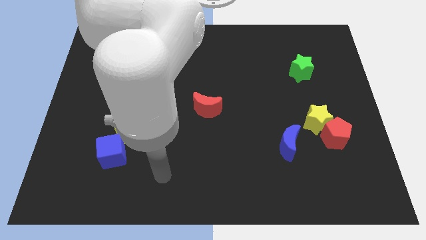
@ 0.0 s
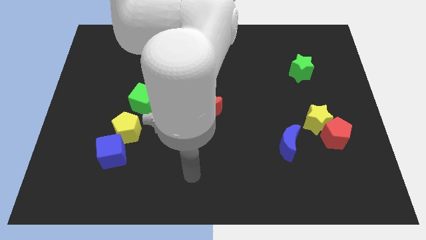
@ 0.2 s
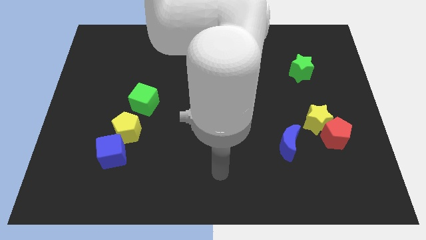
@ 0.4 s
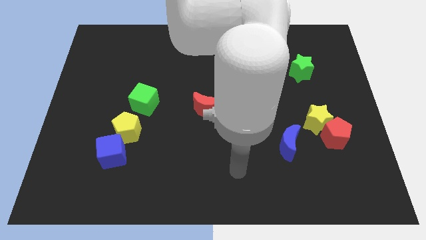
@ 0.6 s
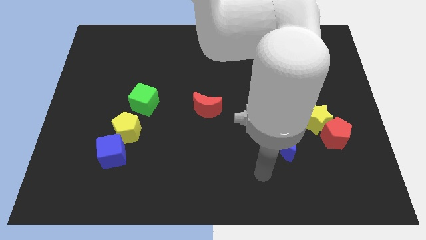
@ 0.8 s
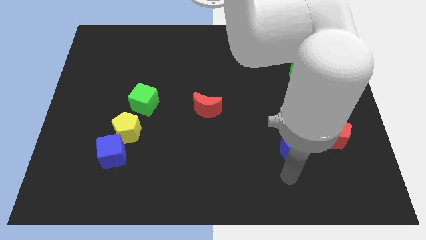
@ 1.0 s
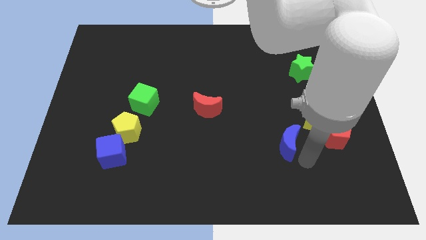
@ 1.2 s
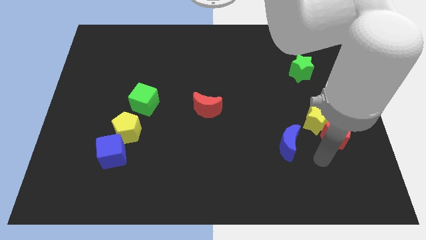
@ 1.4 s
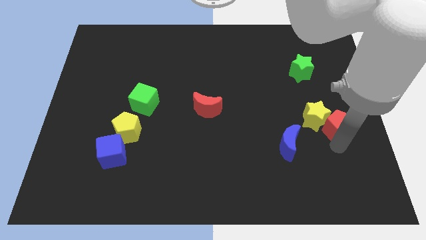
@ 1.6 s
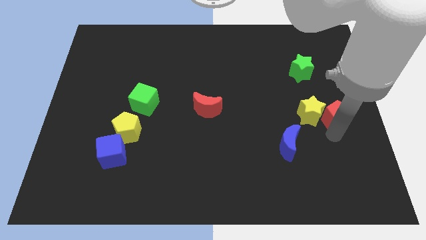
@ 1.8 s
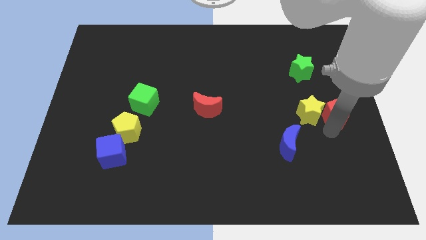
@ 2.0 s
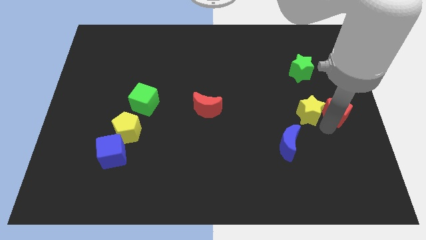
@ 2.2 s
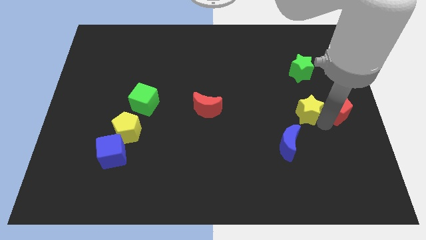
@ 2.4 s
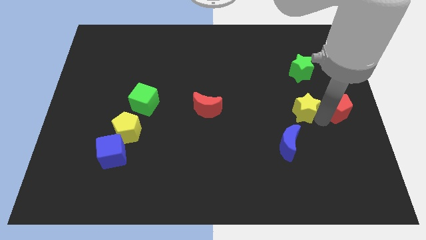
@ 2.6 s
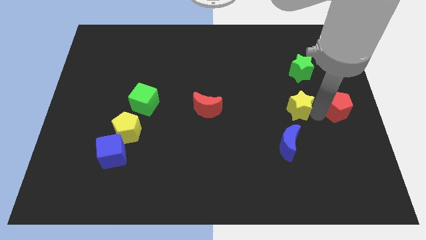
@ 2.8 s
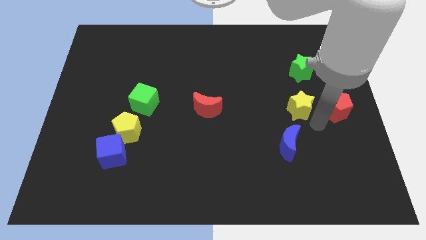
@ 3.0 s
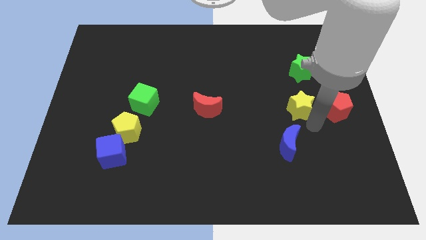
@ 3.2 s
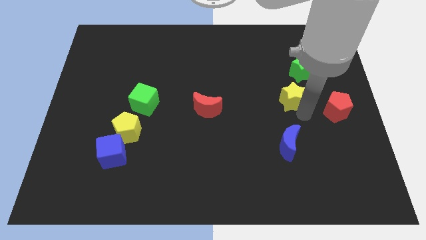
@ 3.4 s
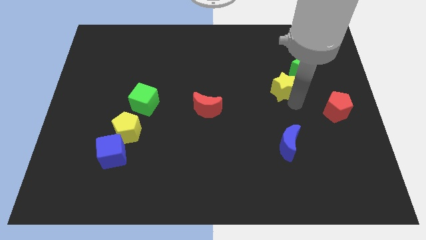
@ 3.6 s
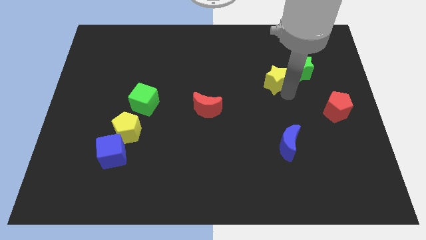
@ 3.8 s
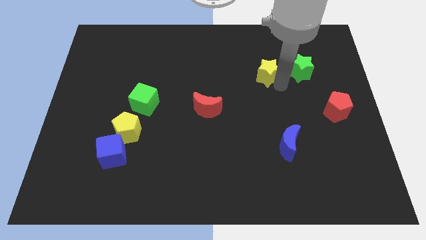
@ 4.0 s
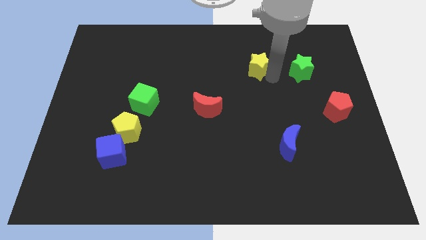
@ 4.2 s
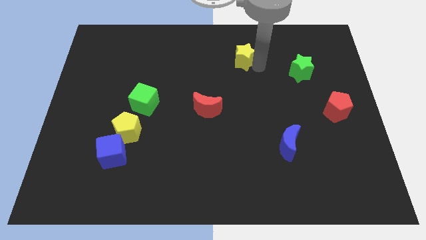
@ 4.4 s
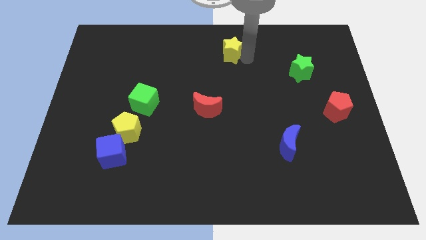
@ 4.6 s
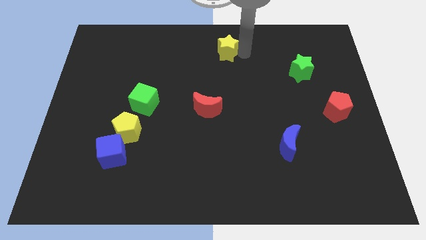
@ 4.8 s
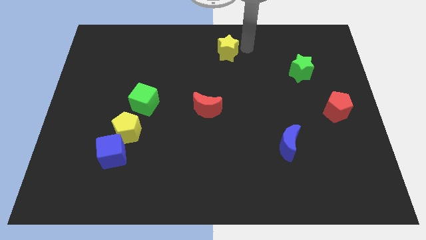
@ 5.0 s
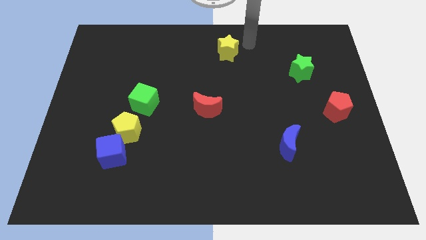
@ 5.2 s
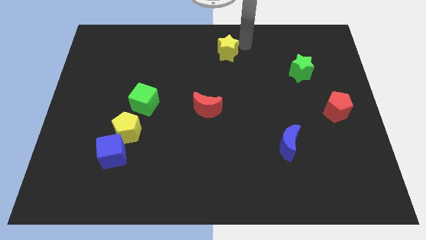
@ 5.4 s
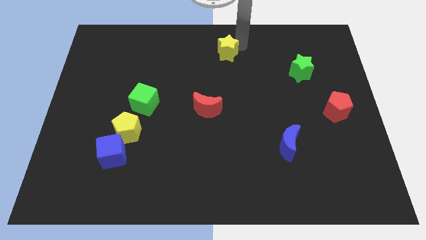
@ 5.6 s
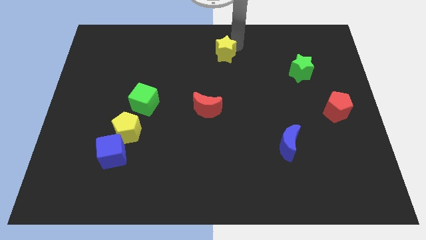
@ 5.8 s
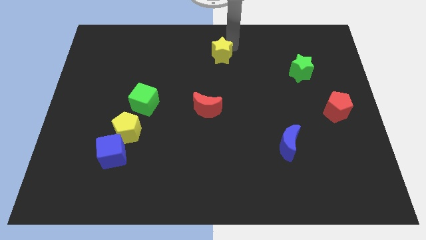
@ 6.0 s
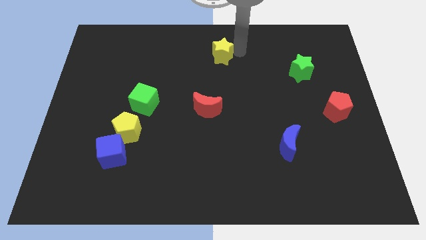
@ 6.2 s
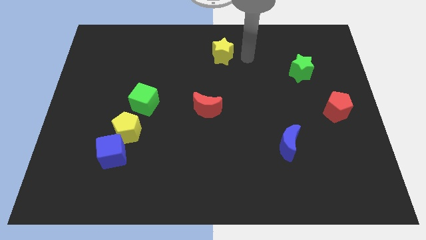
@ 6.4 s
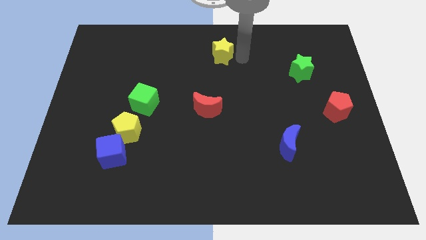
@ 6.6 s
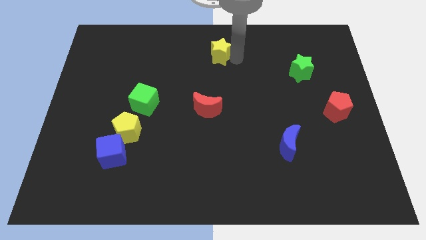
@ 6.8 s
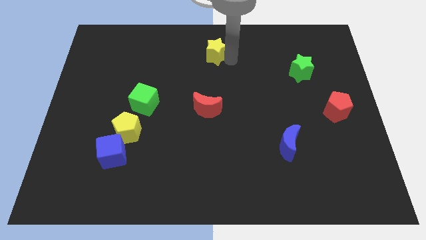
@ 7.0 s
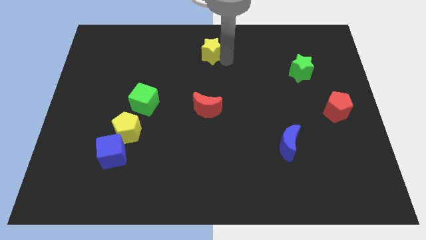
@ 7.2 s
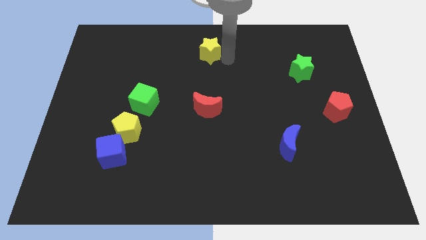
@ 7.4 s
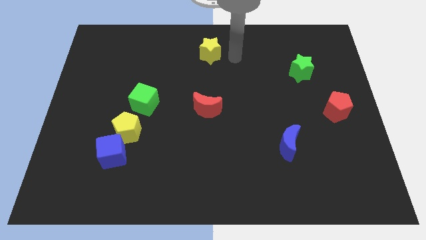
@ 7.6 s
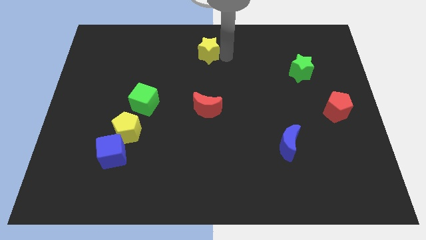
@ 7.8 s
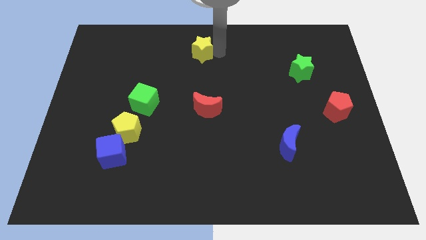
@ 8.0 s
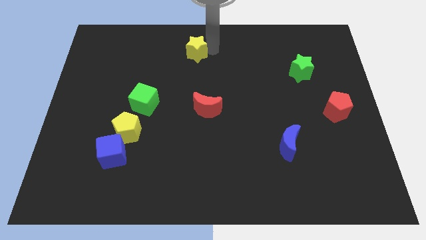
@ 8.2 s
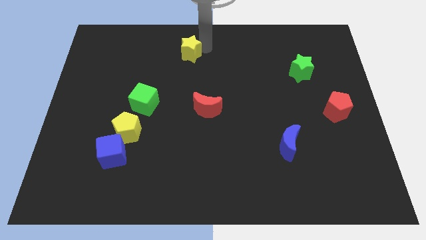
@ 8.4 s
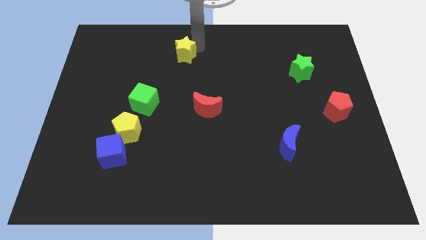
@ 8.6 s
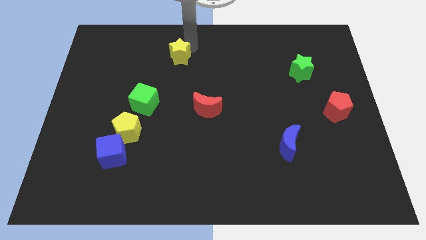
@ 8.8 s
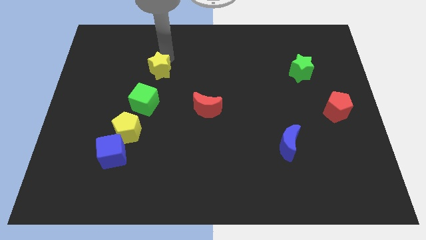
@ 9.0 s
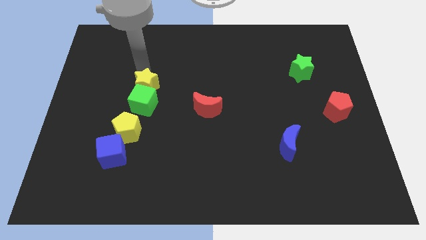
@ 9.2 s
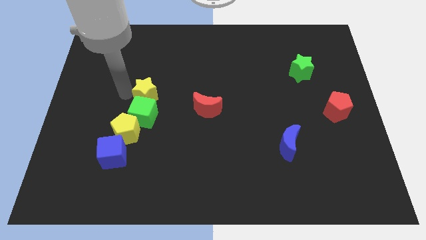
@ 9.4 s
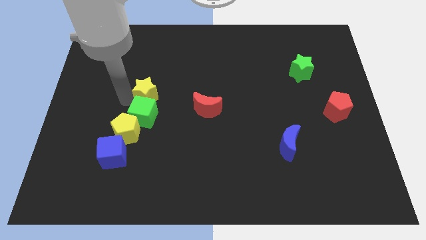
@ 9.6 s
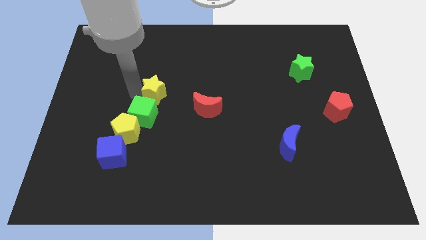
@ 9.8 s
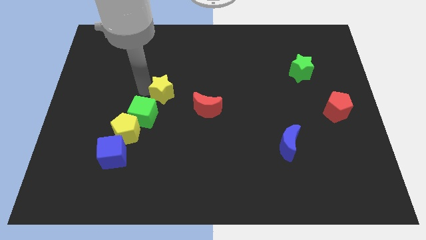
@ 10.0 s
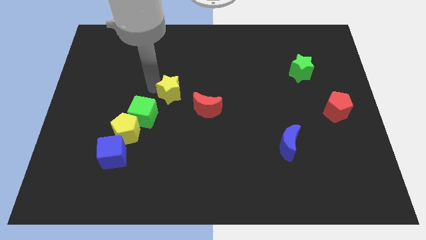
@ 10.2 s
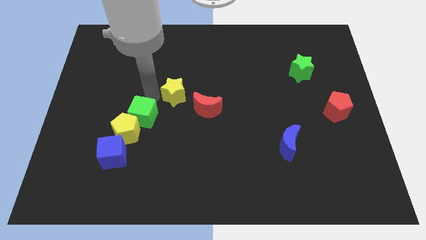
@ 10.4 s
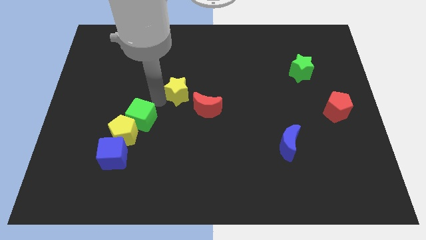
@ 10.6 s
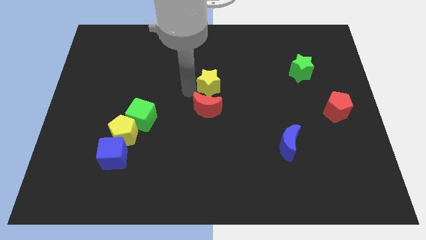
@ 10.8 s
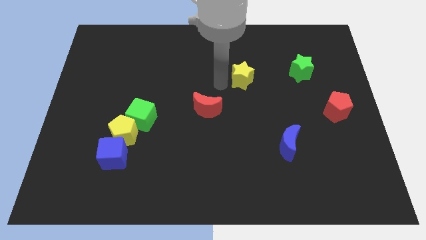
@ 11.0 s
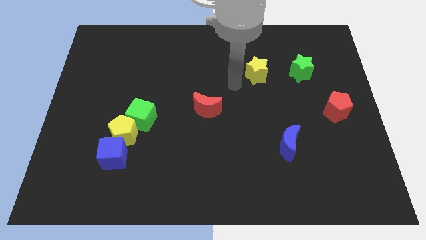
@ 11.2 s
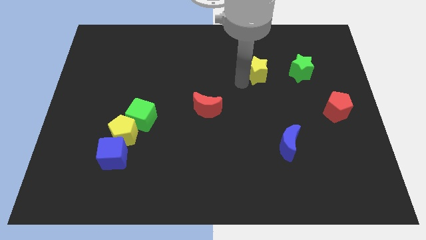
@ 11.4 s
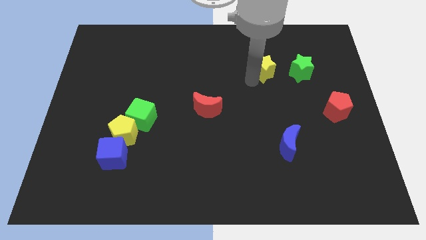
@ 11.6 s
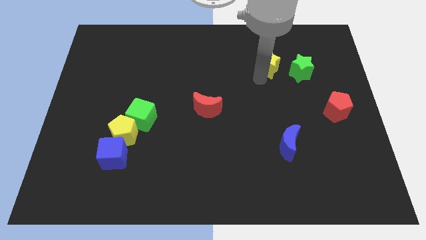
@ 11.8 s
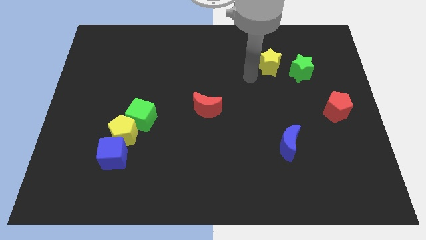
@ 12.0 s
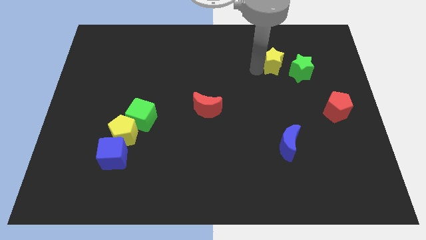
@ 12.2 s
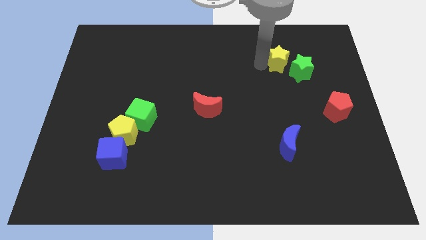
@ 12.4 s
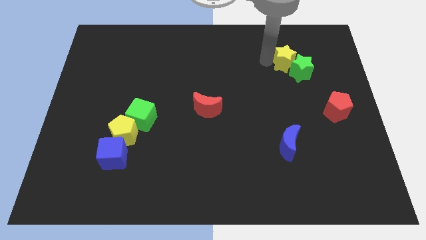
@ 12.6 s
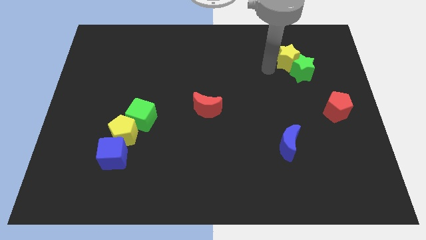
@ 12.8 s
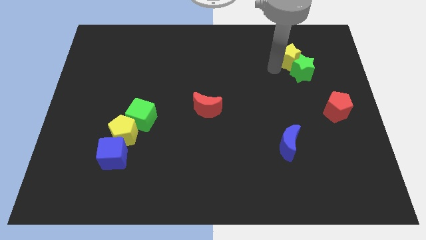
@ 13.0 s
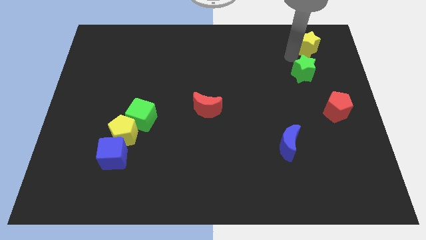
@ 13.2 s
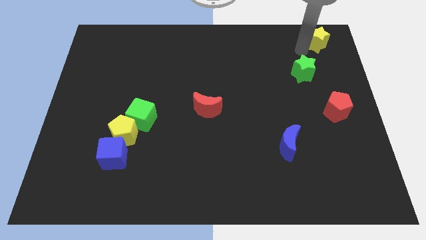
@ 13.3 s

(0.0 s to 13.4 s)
push the yellow star to the upper right corner

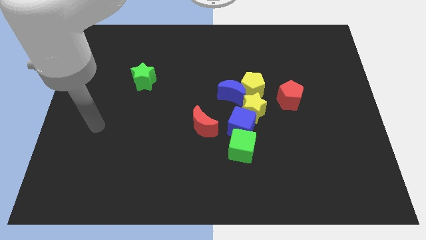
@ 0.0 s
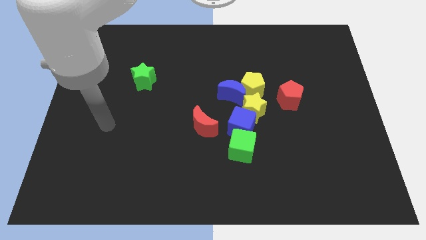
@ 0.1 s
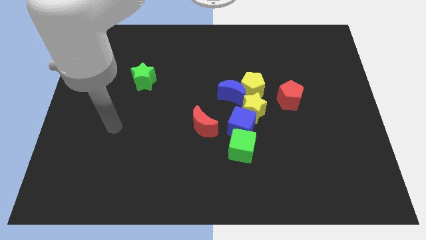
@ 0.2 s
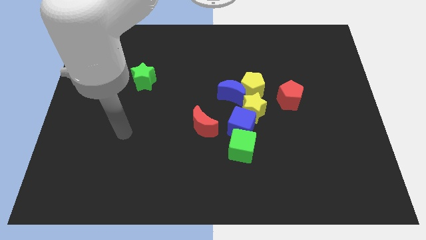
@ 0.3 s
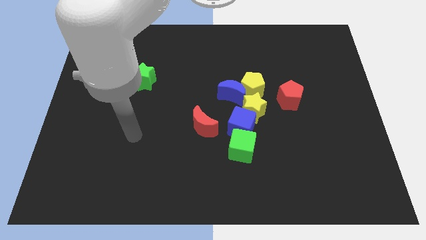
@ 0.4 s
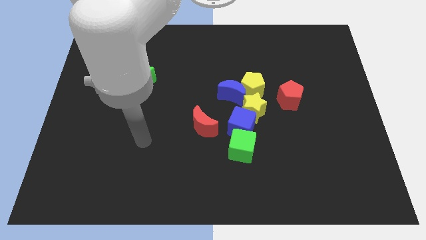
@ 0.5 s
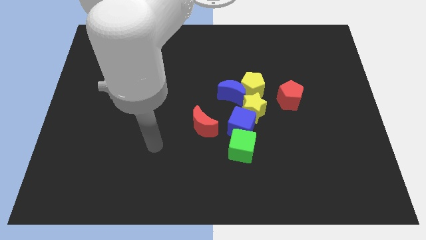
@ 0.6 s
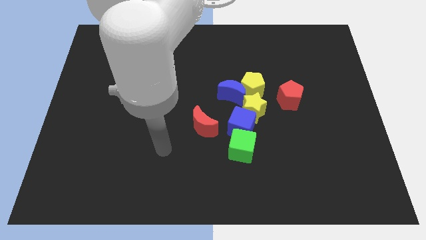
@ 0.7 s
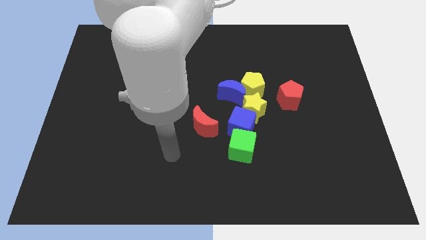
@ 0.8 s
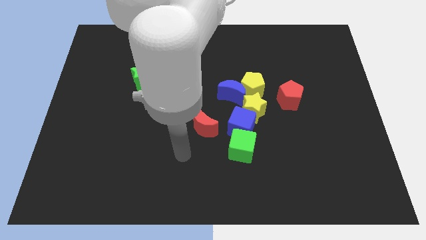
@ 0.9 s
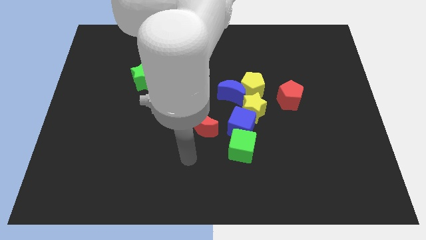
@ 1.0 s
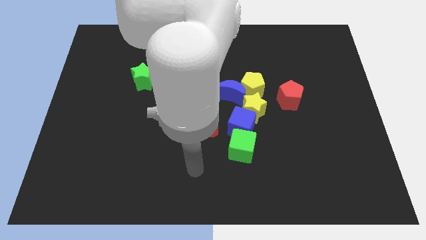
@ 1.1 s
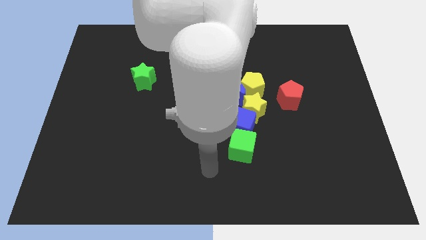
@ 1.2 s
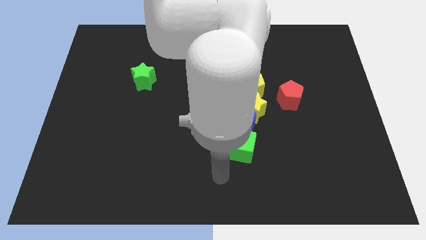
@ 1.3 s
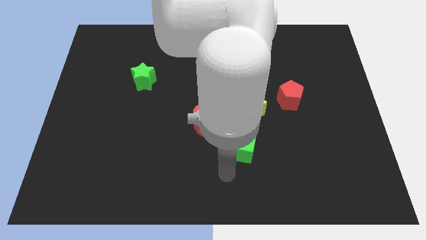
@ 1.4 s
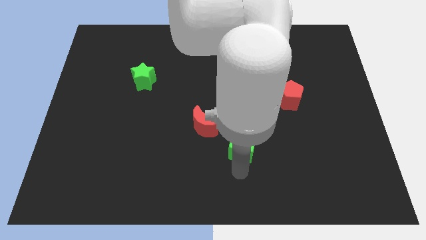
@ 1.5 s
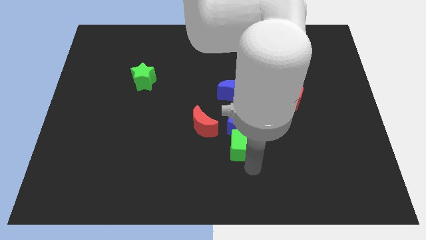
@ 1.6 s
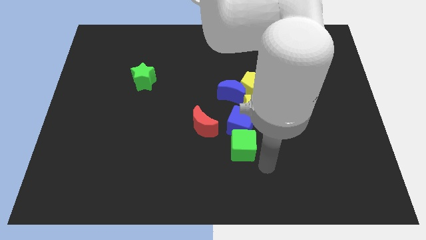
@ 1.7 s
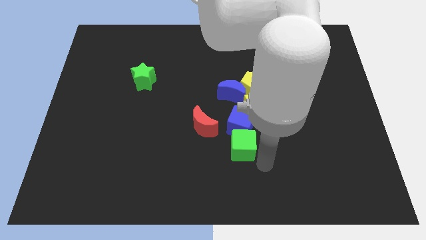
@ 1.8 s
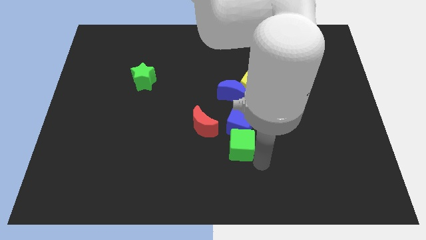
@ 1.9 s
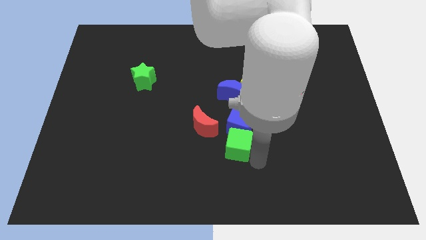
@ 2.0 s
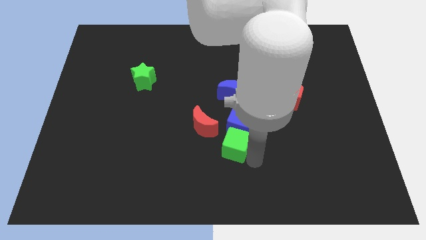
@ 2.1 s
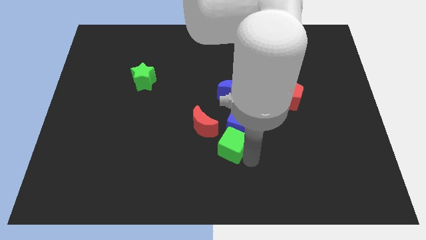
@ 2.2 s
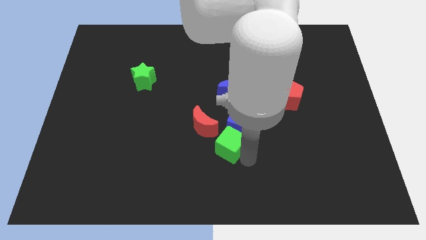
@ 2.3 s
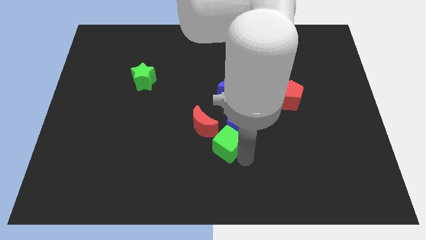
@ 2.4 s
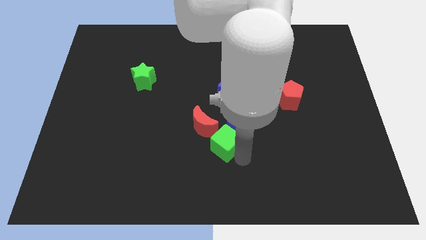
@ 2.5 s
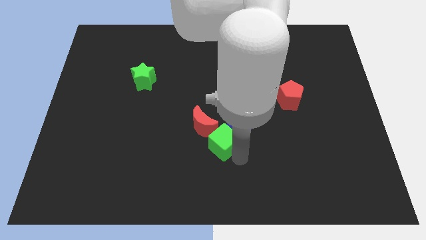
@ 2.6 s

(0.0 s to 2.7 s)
slide the green cube to the center of the board
